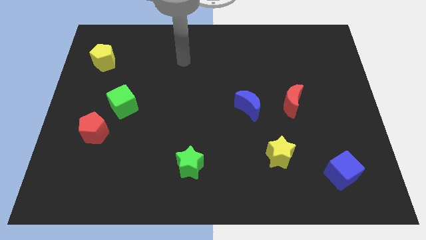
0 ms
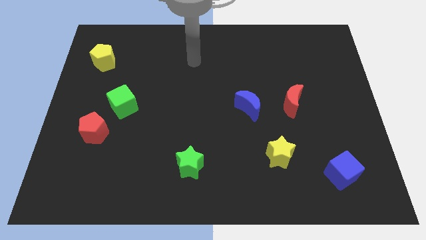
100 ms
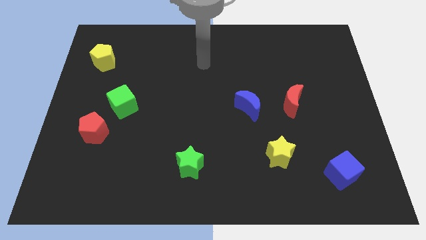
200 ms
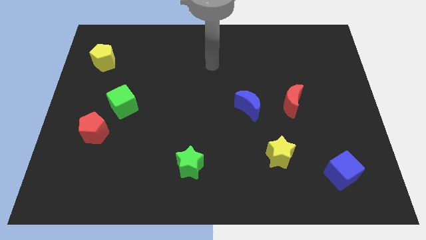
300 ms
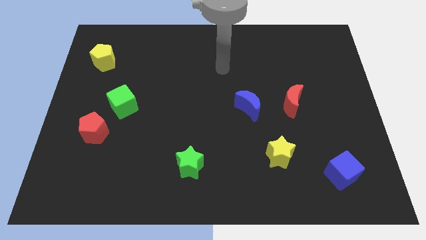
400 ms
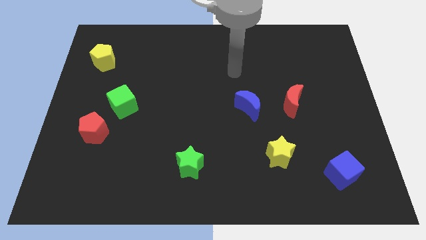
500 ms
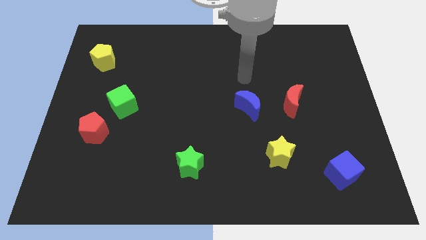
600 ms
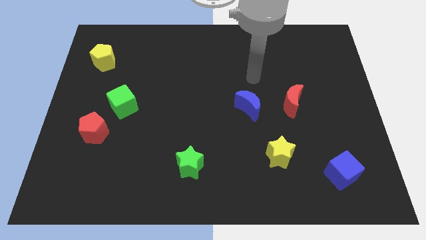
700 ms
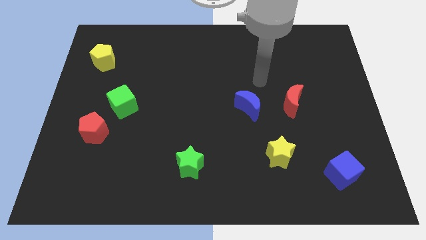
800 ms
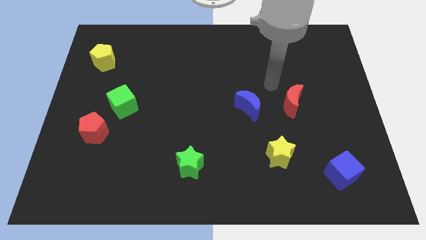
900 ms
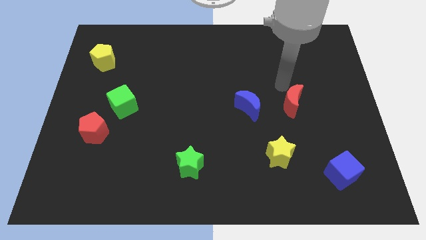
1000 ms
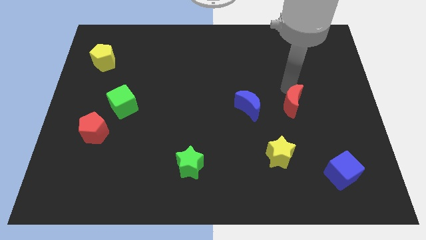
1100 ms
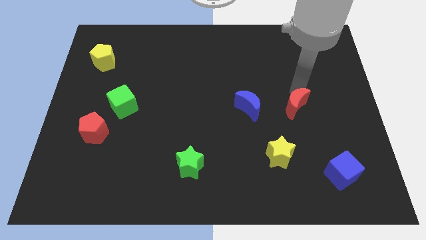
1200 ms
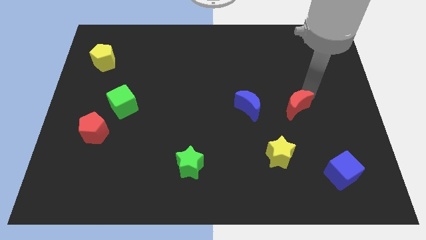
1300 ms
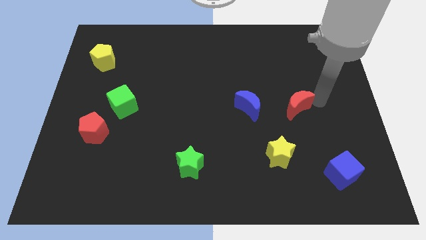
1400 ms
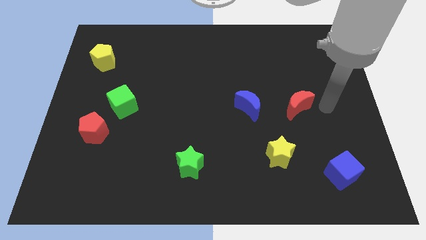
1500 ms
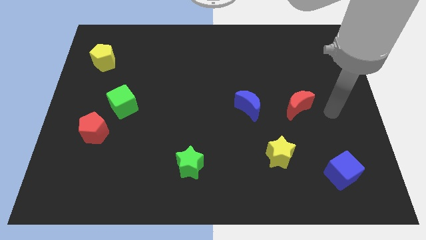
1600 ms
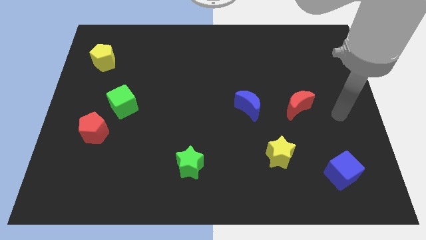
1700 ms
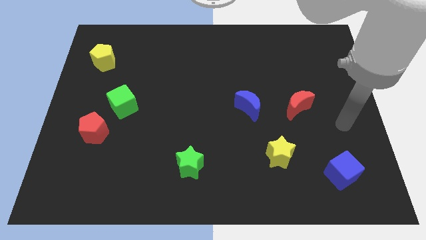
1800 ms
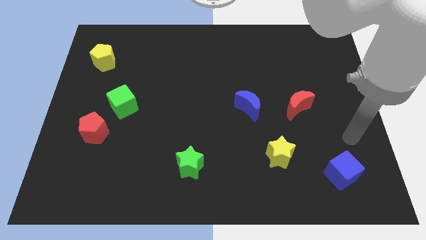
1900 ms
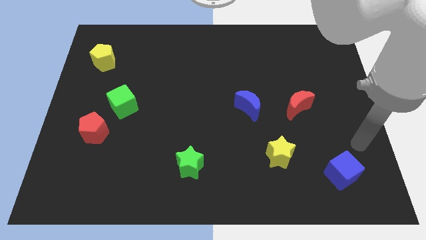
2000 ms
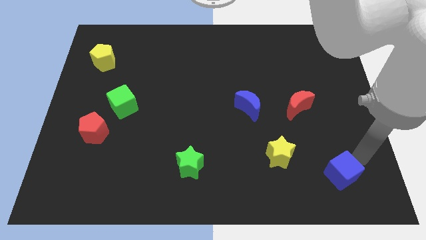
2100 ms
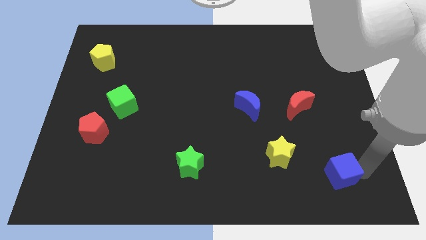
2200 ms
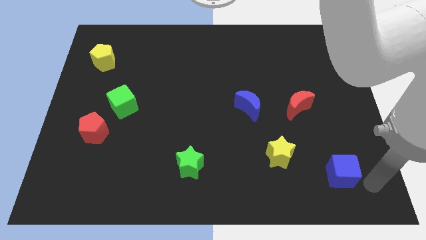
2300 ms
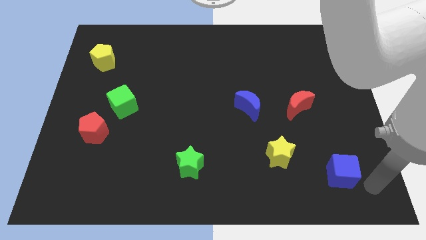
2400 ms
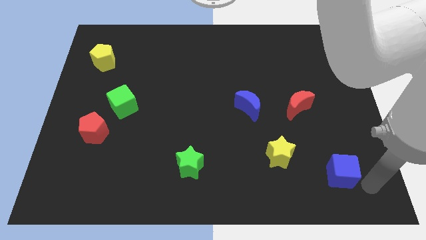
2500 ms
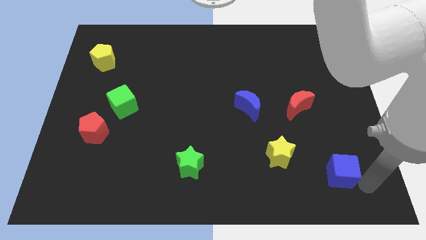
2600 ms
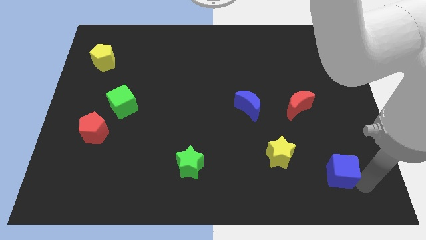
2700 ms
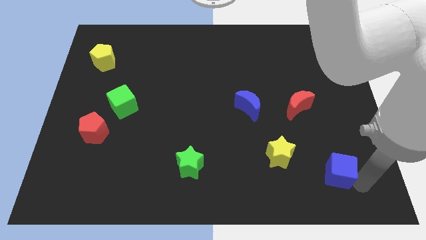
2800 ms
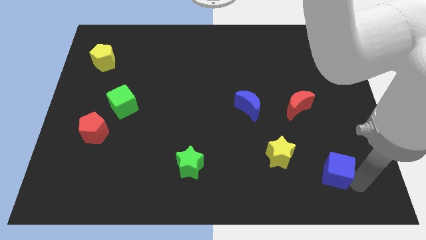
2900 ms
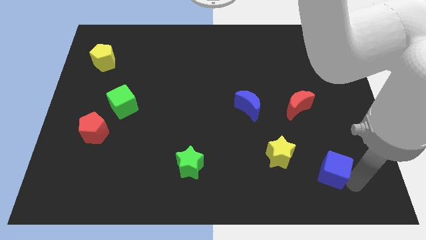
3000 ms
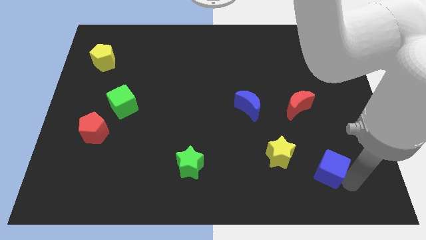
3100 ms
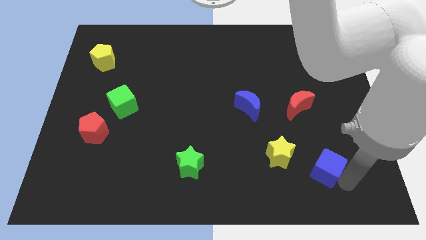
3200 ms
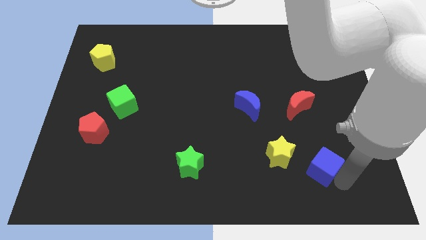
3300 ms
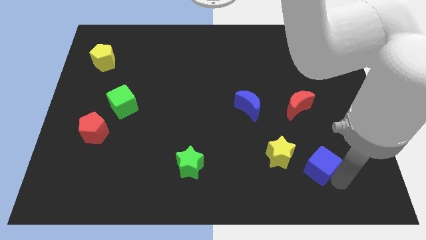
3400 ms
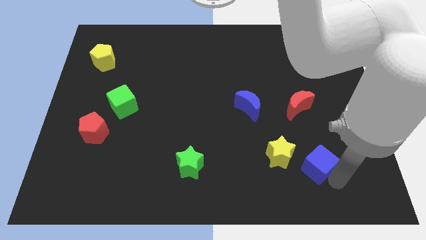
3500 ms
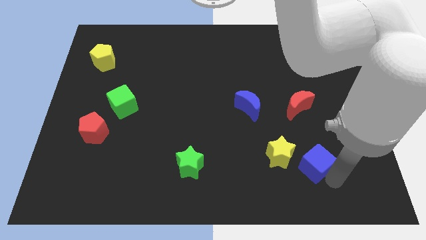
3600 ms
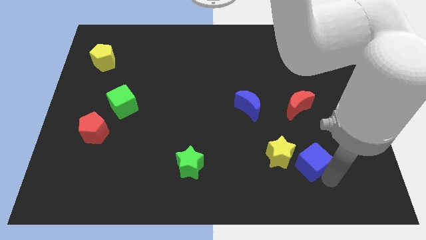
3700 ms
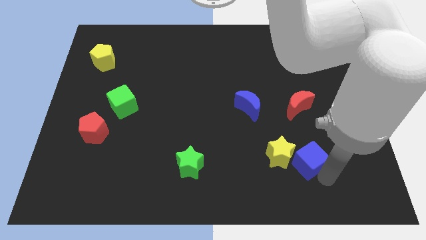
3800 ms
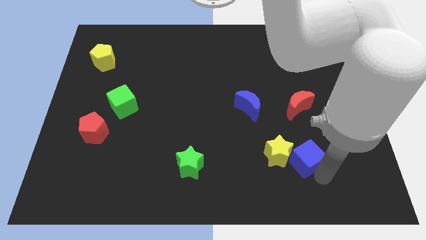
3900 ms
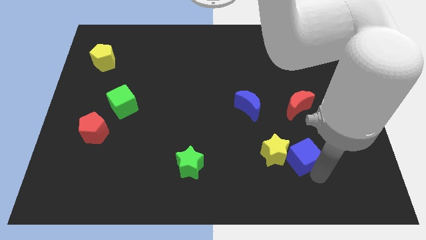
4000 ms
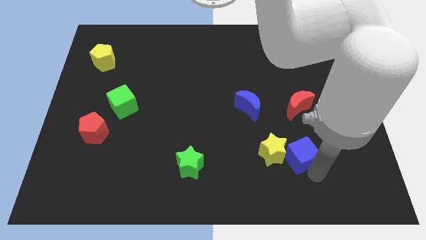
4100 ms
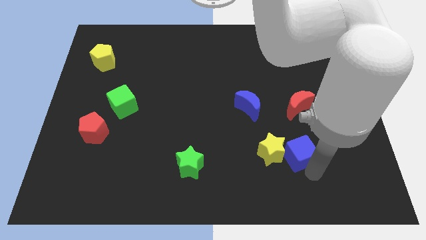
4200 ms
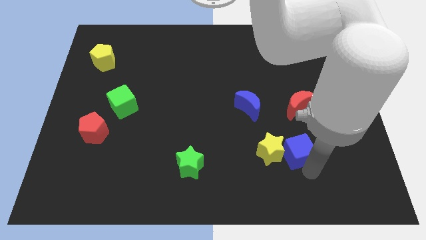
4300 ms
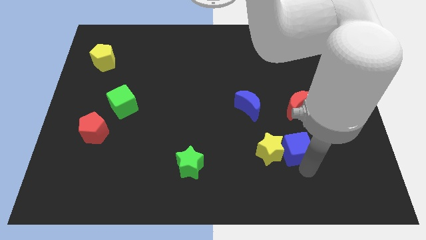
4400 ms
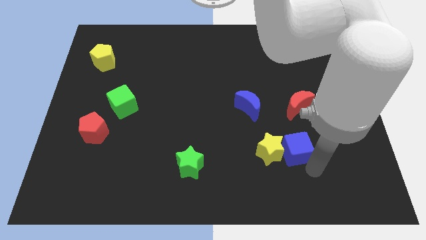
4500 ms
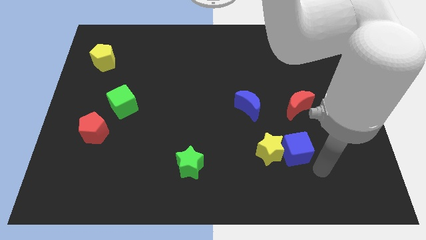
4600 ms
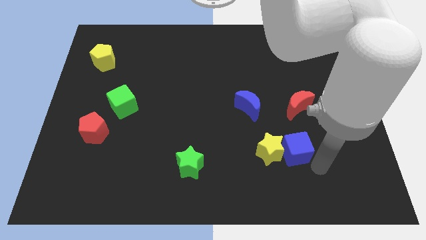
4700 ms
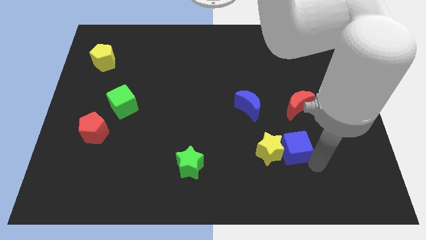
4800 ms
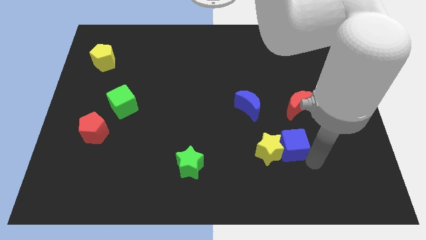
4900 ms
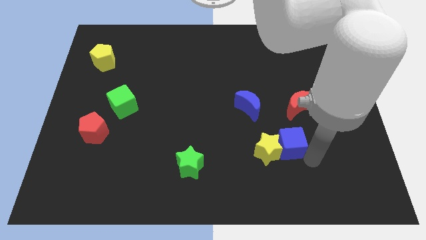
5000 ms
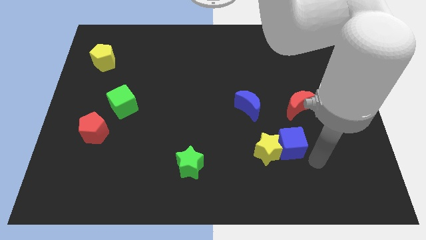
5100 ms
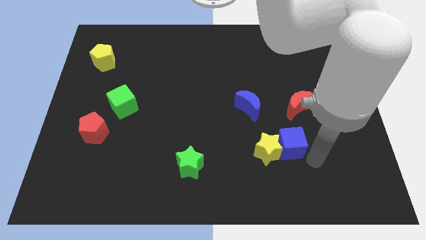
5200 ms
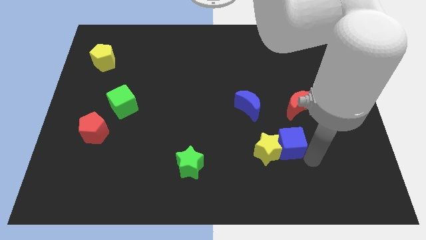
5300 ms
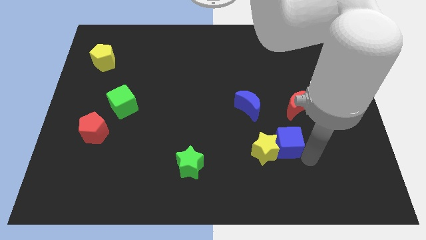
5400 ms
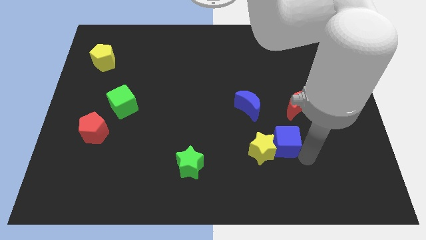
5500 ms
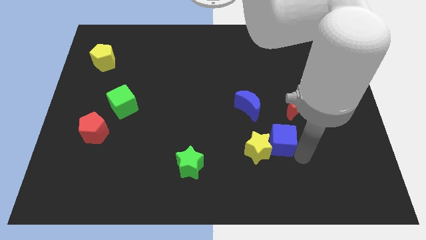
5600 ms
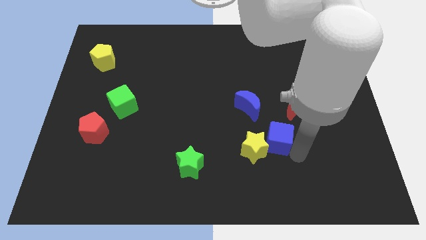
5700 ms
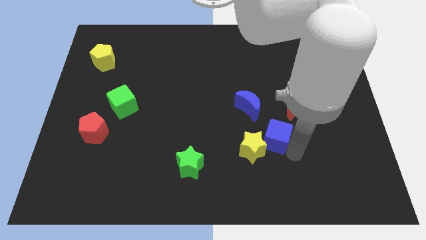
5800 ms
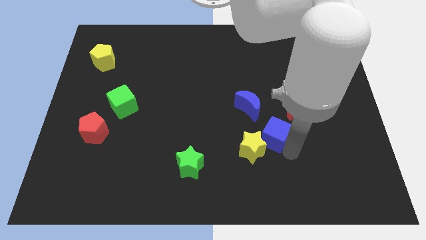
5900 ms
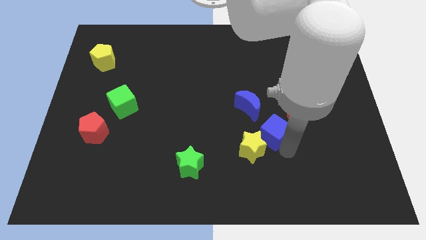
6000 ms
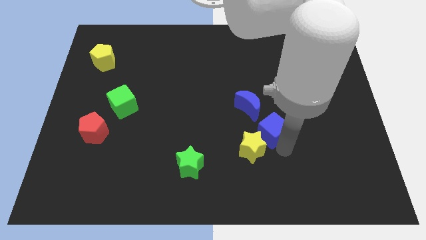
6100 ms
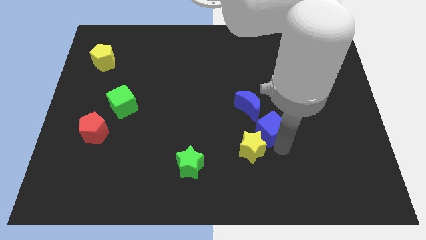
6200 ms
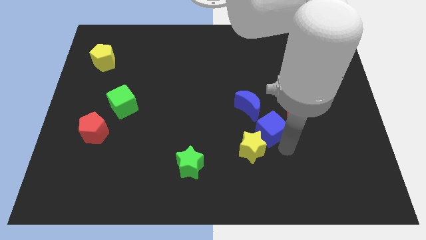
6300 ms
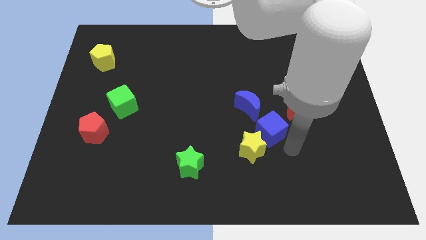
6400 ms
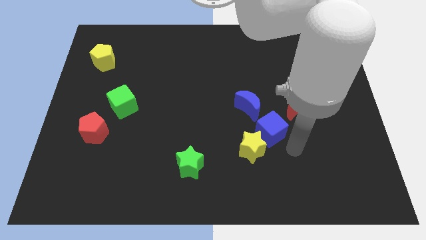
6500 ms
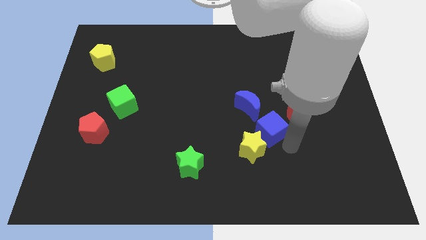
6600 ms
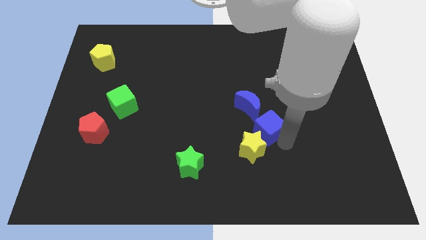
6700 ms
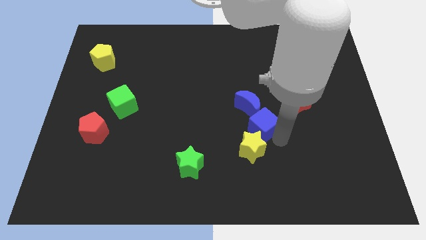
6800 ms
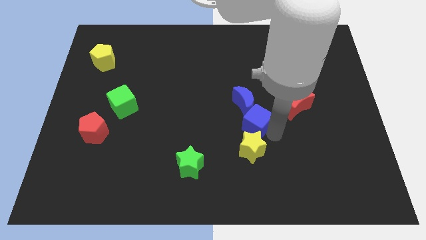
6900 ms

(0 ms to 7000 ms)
move the blue cube up and left diagonally

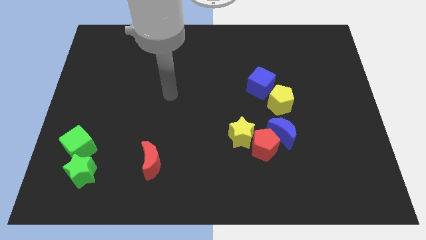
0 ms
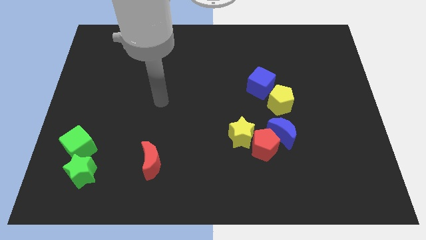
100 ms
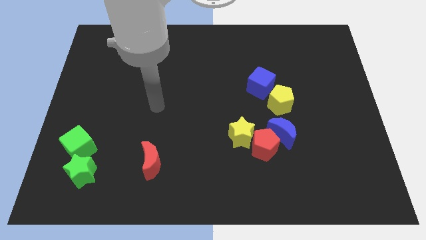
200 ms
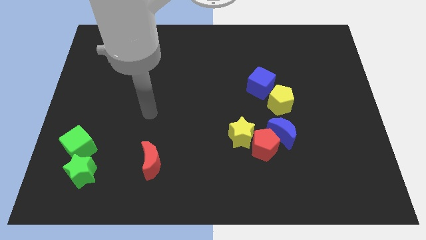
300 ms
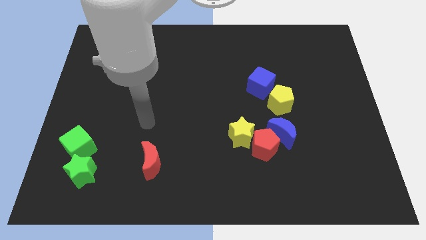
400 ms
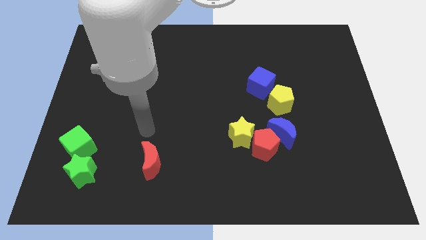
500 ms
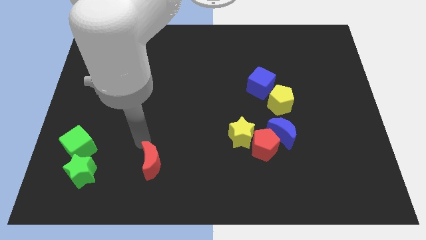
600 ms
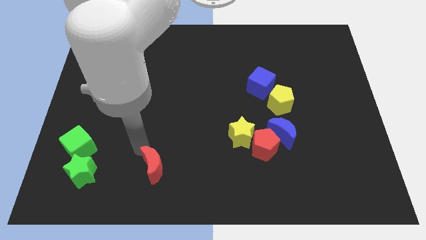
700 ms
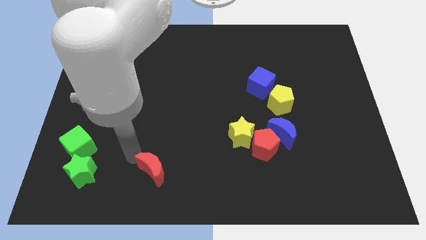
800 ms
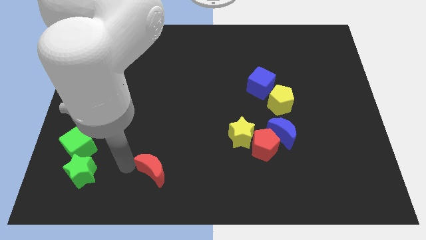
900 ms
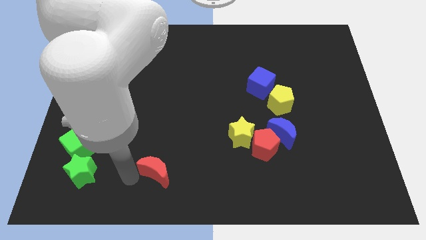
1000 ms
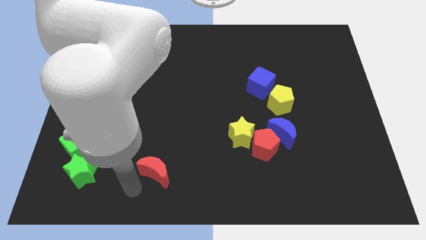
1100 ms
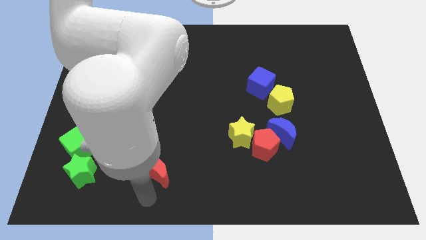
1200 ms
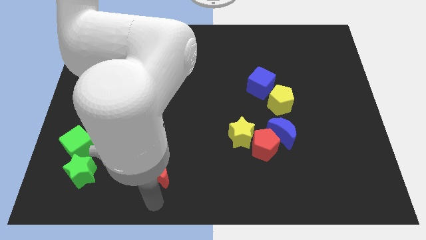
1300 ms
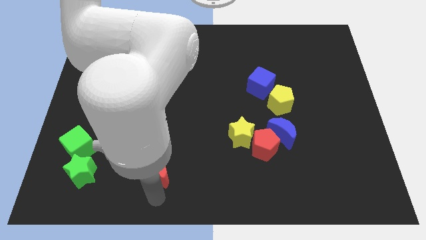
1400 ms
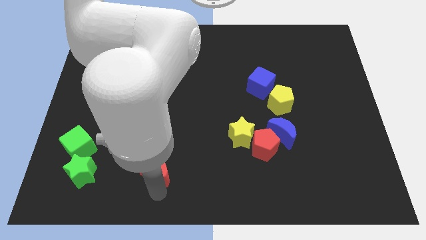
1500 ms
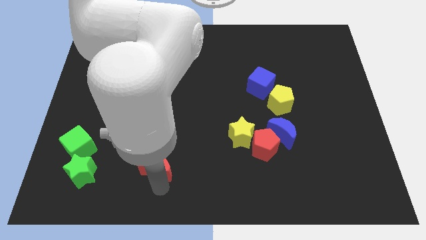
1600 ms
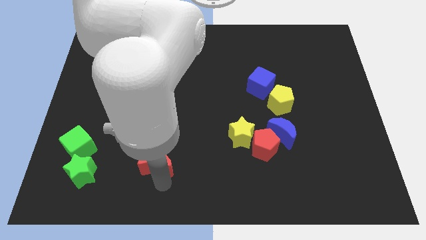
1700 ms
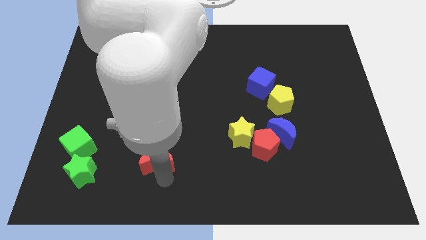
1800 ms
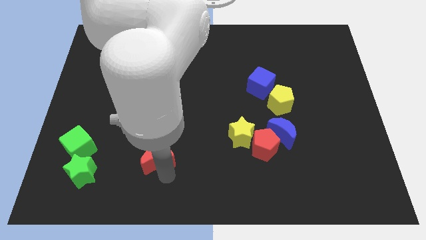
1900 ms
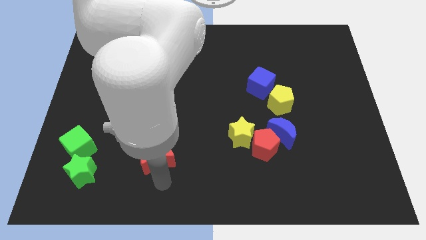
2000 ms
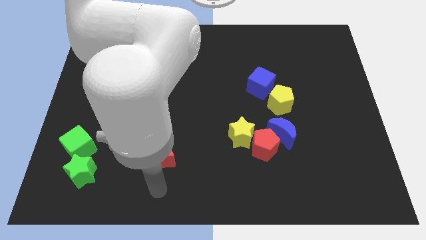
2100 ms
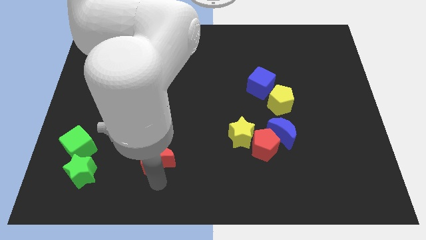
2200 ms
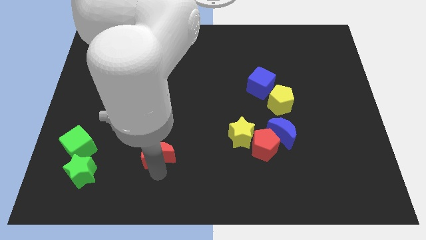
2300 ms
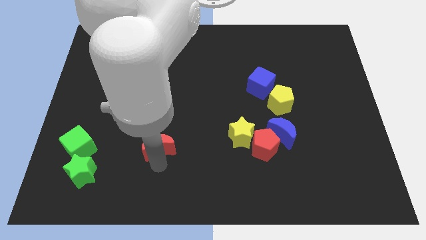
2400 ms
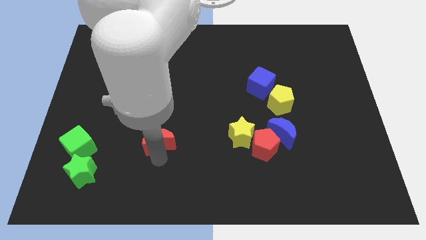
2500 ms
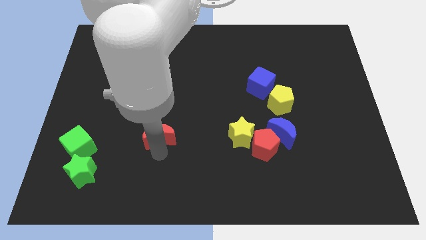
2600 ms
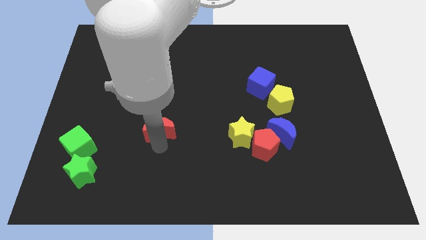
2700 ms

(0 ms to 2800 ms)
slide the red moon up a little
